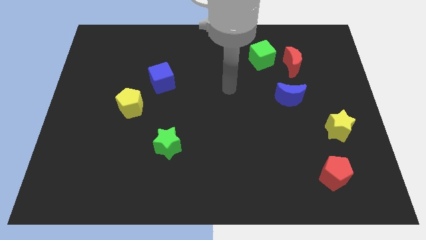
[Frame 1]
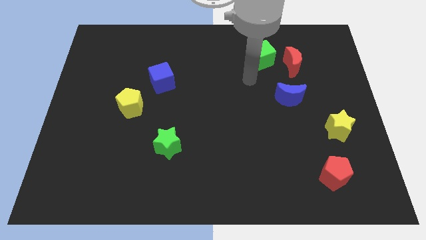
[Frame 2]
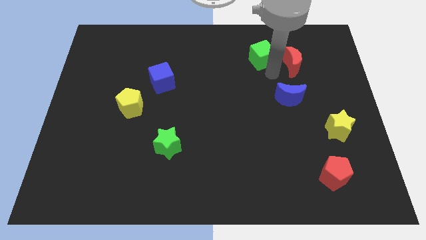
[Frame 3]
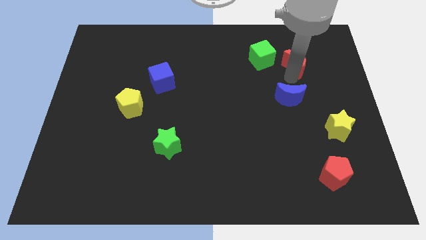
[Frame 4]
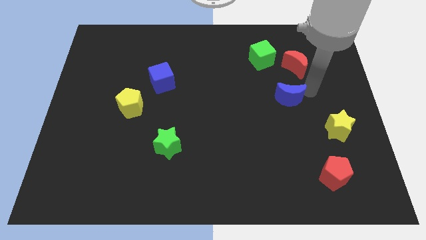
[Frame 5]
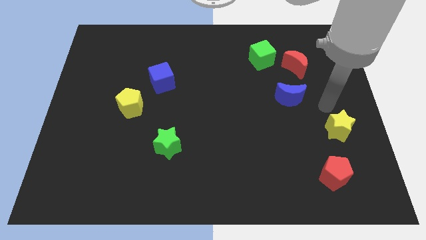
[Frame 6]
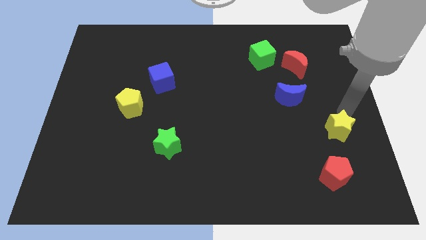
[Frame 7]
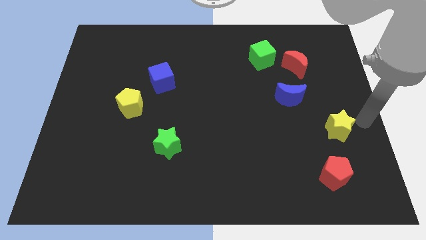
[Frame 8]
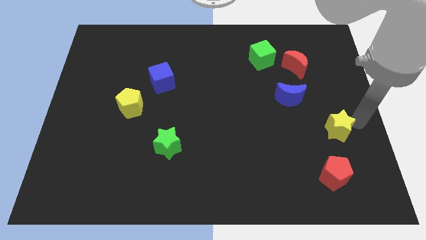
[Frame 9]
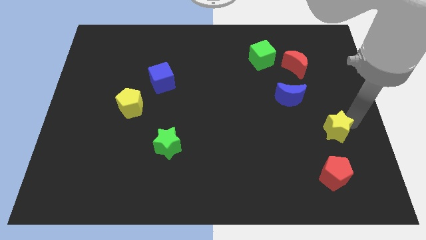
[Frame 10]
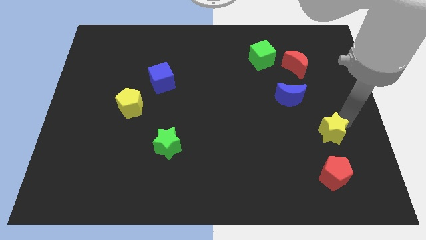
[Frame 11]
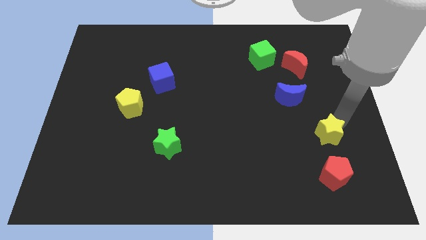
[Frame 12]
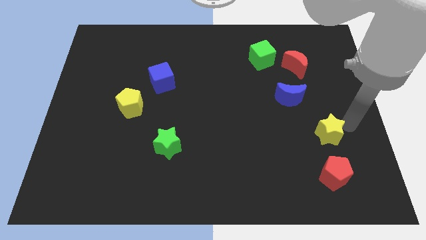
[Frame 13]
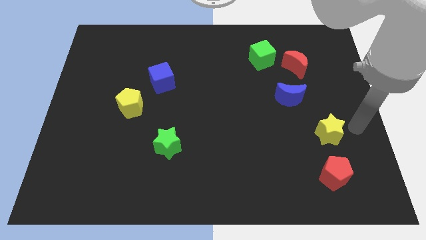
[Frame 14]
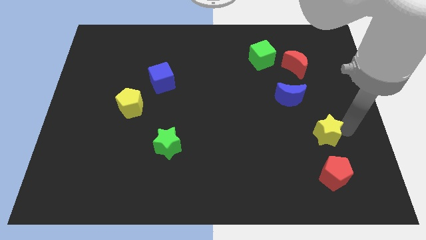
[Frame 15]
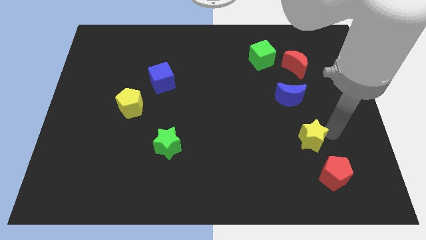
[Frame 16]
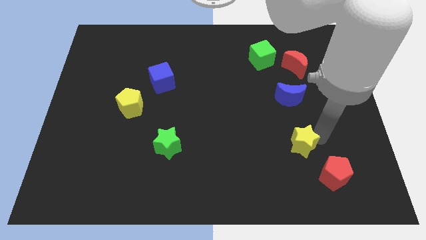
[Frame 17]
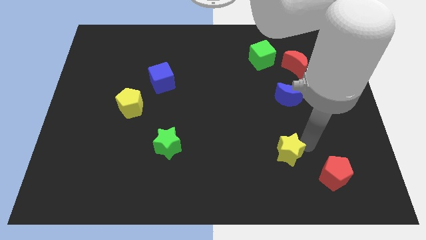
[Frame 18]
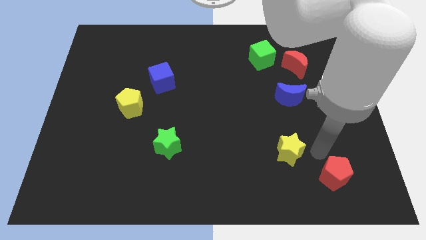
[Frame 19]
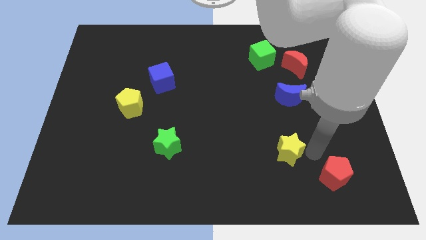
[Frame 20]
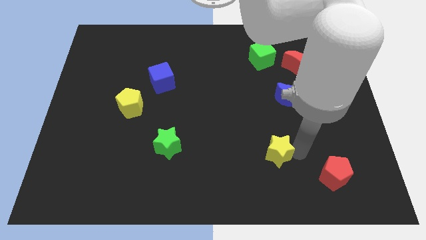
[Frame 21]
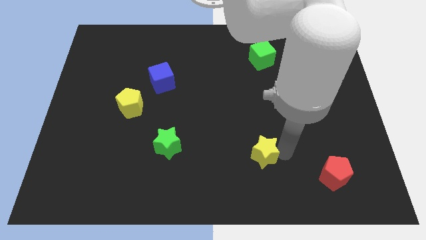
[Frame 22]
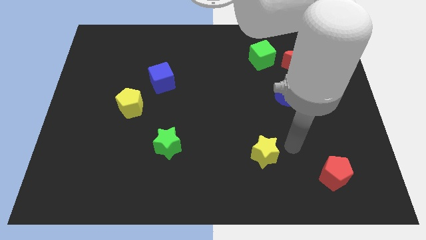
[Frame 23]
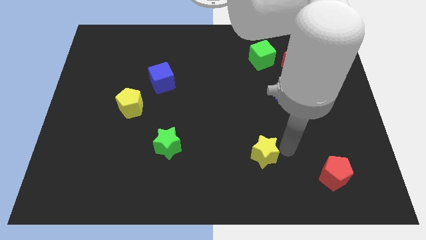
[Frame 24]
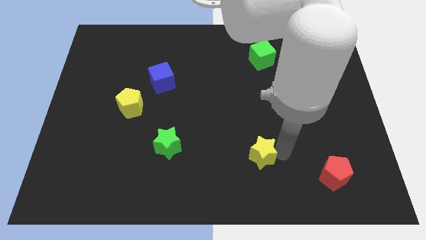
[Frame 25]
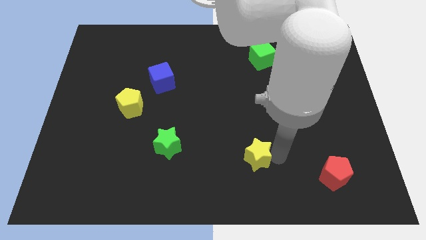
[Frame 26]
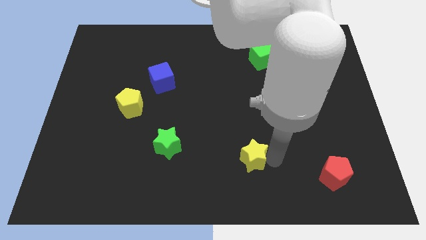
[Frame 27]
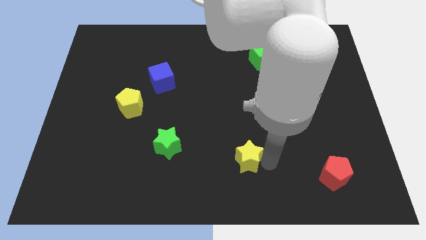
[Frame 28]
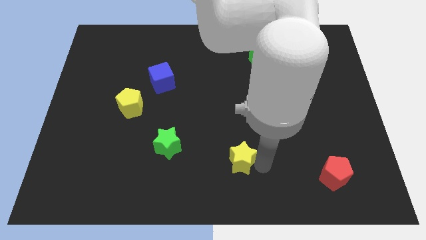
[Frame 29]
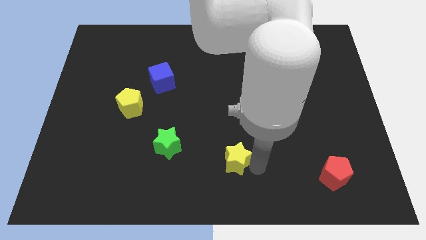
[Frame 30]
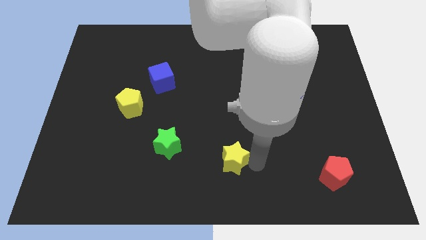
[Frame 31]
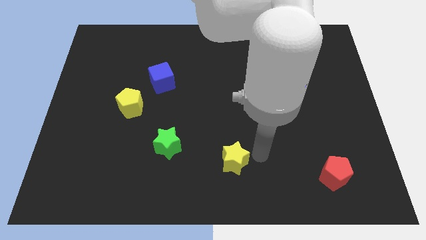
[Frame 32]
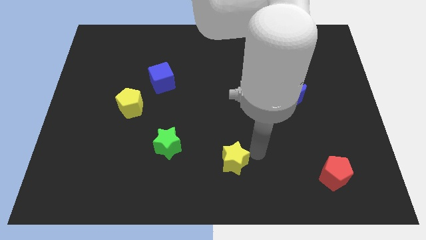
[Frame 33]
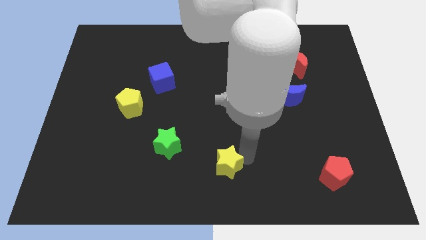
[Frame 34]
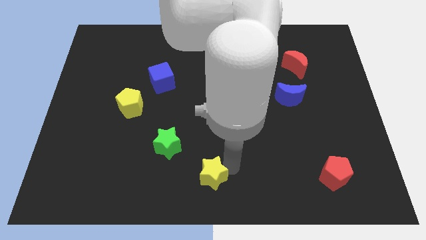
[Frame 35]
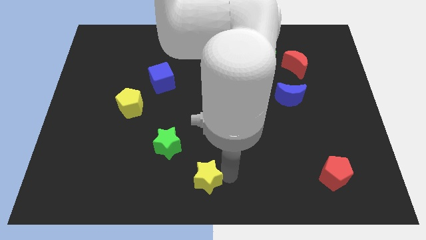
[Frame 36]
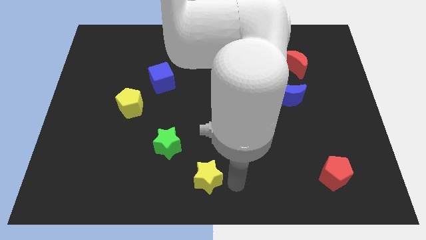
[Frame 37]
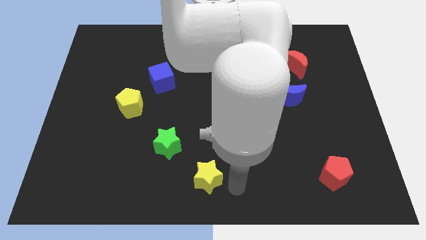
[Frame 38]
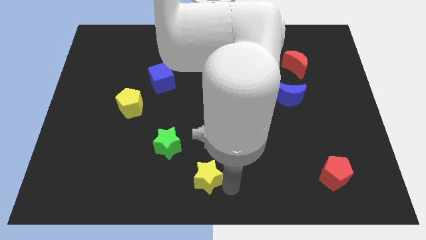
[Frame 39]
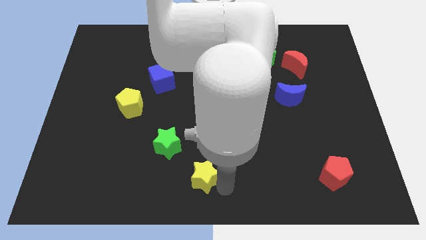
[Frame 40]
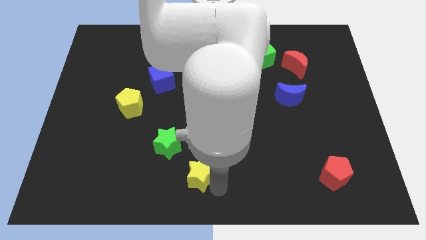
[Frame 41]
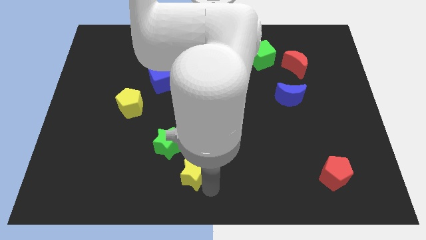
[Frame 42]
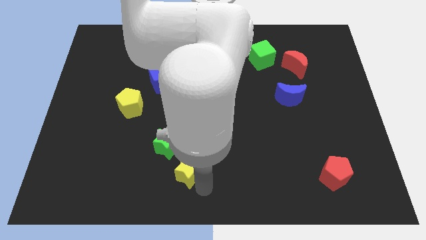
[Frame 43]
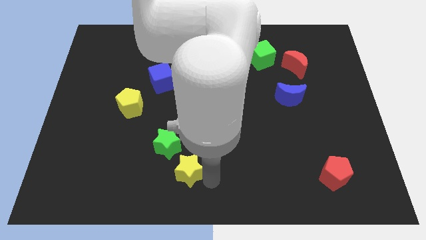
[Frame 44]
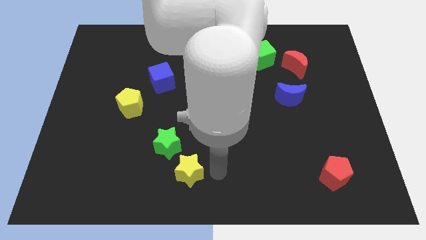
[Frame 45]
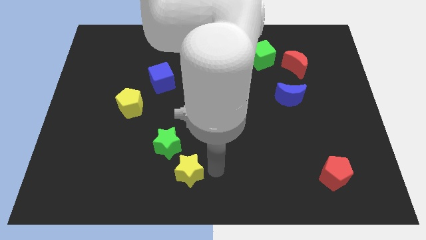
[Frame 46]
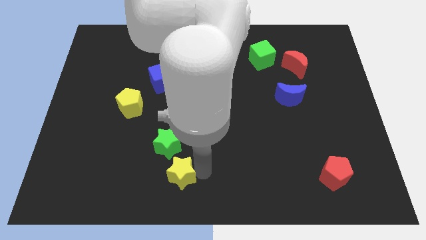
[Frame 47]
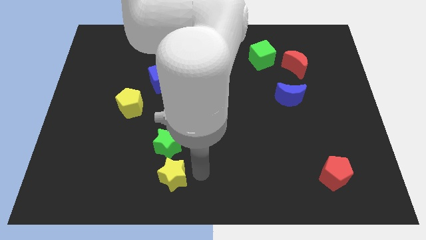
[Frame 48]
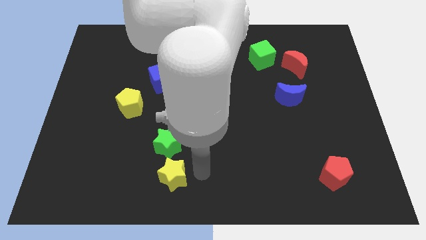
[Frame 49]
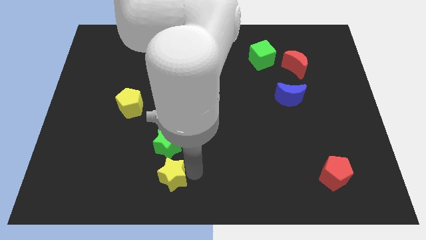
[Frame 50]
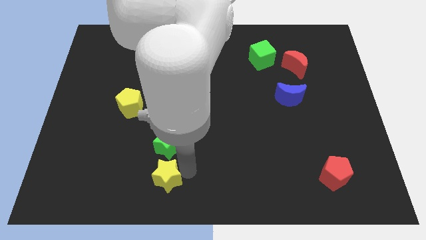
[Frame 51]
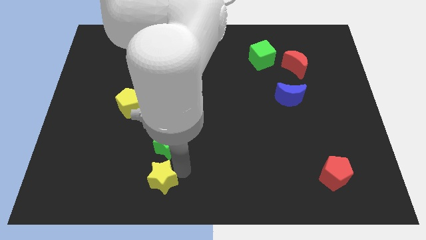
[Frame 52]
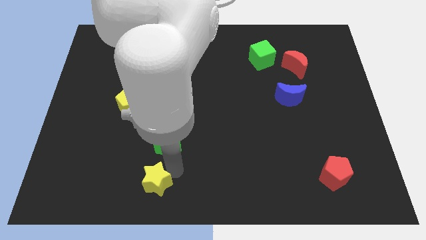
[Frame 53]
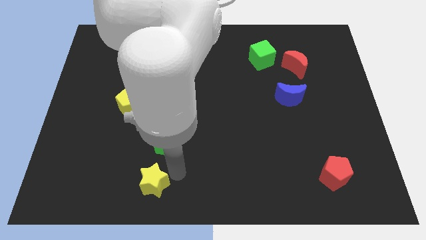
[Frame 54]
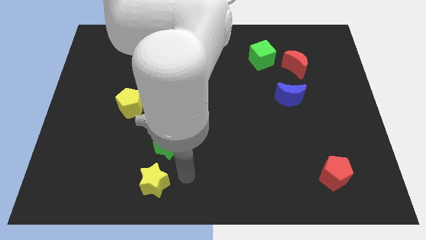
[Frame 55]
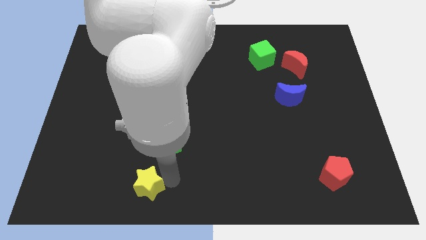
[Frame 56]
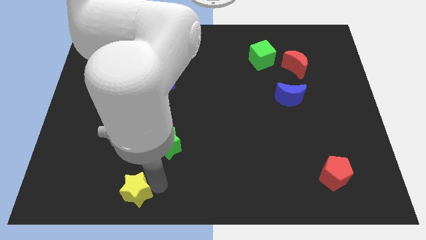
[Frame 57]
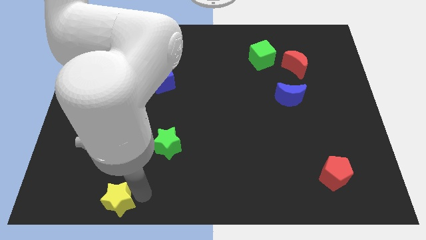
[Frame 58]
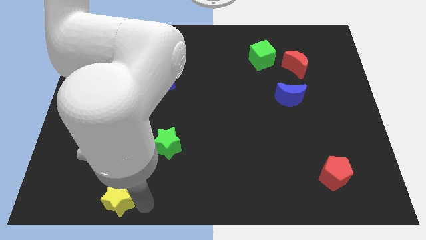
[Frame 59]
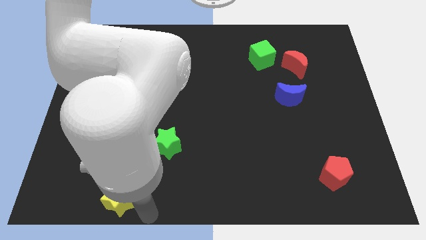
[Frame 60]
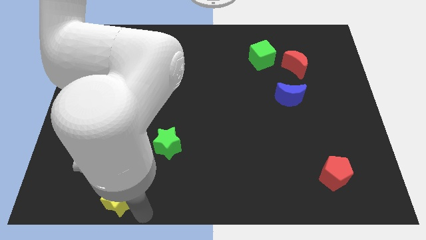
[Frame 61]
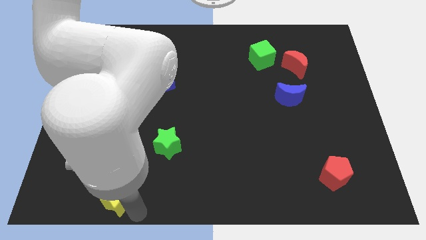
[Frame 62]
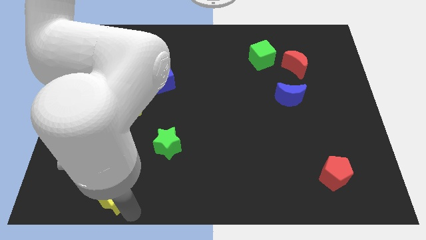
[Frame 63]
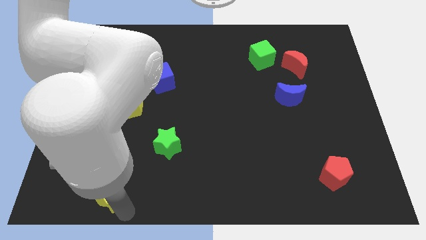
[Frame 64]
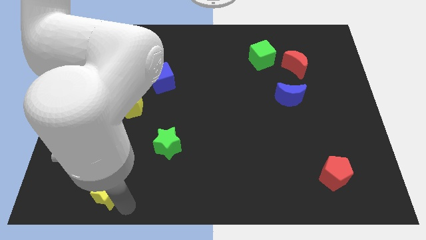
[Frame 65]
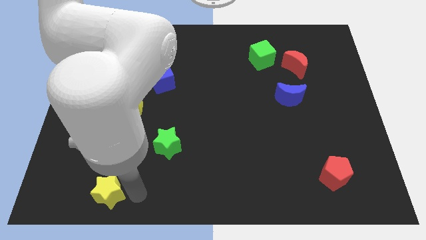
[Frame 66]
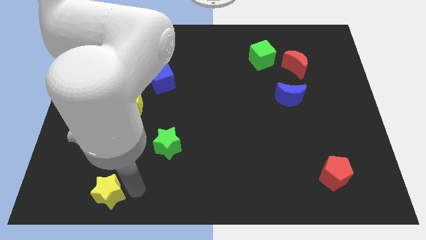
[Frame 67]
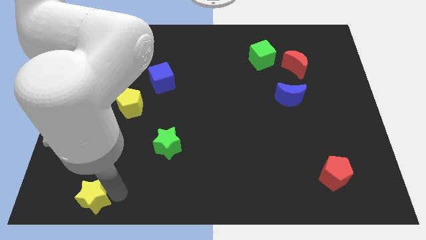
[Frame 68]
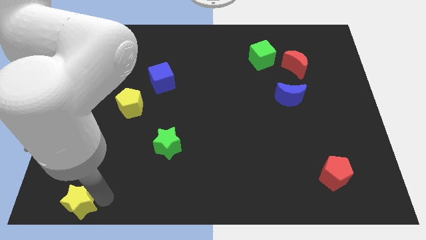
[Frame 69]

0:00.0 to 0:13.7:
move the yellow star to the bottom left
